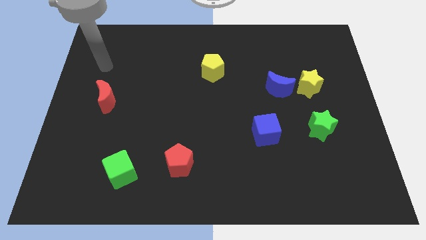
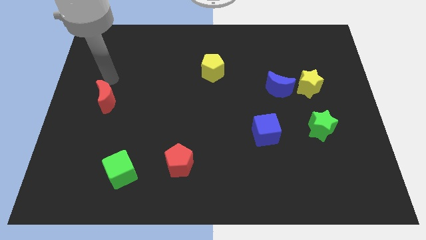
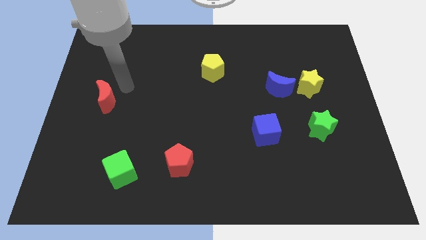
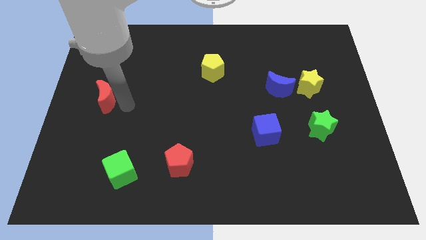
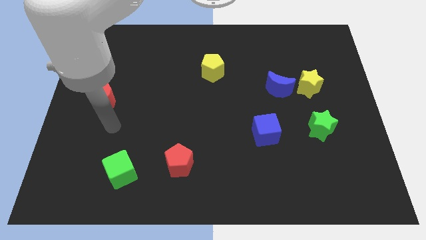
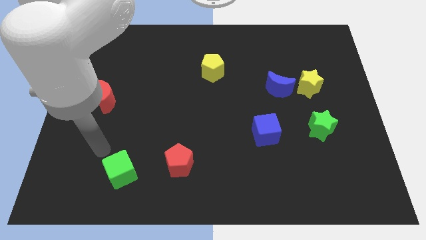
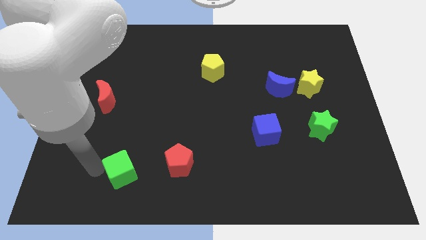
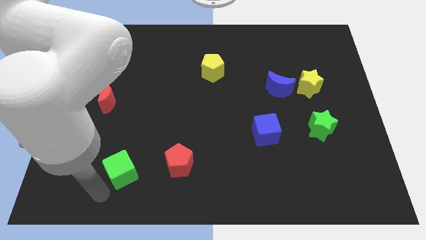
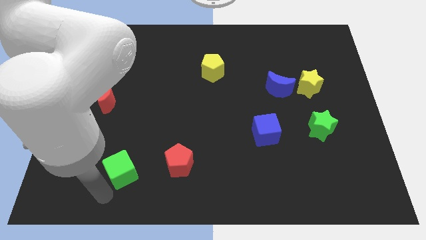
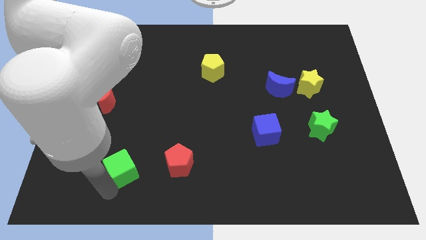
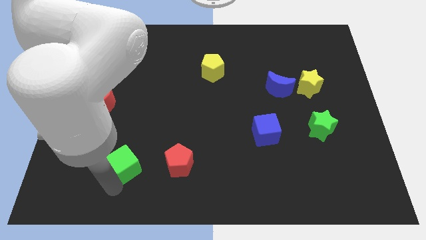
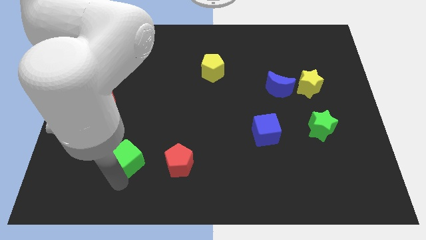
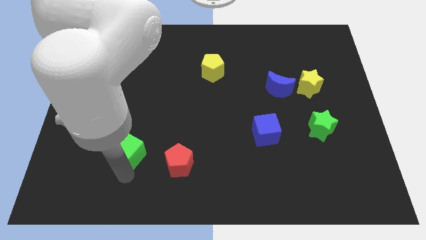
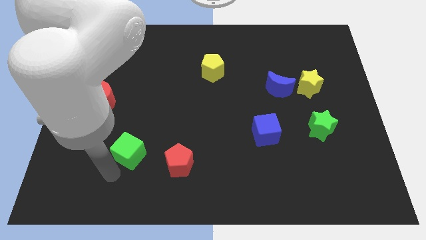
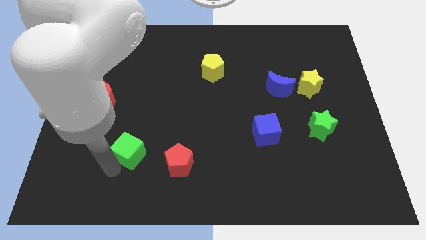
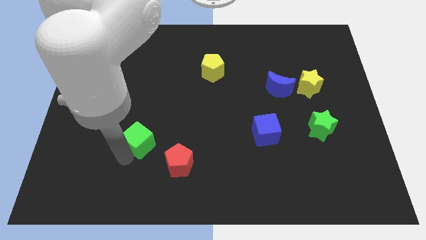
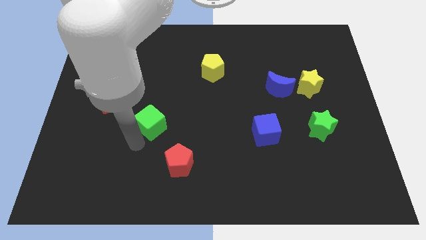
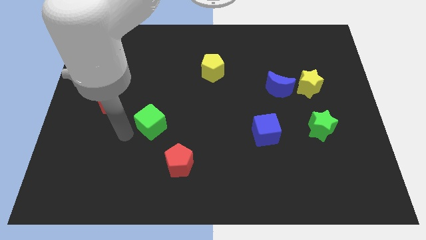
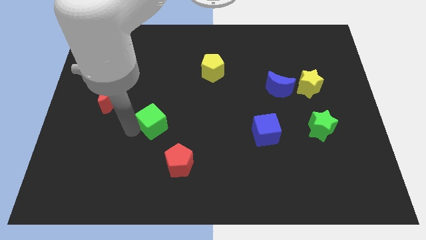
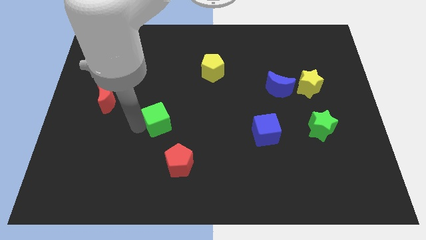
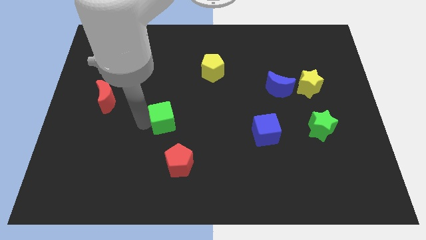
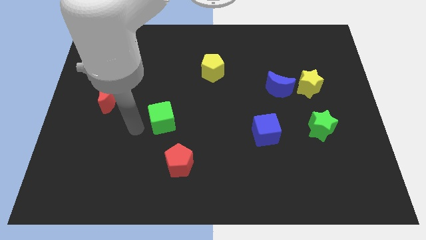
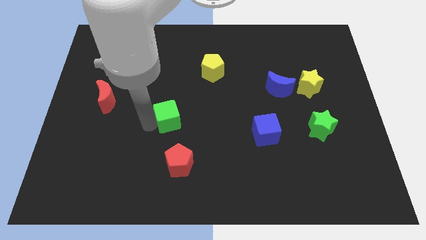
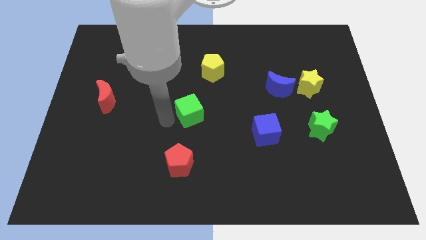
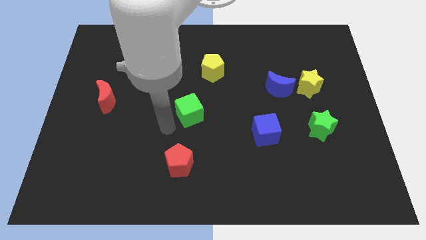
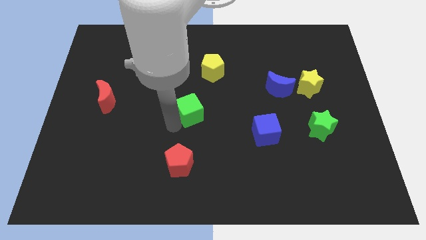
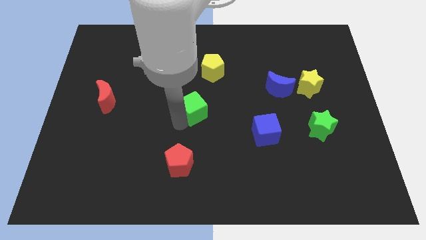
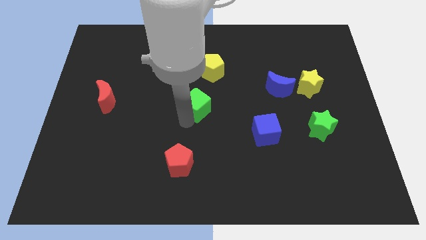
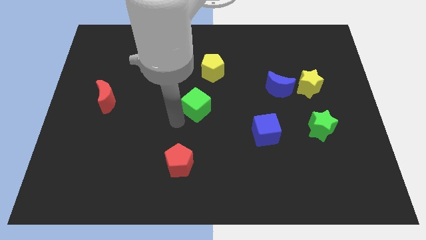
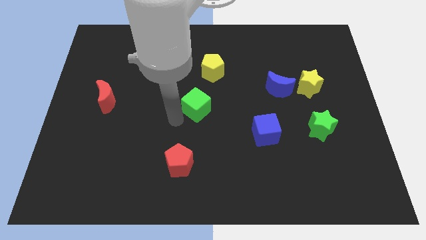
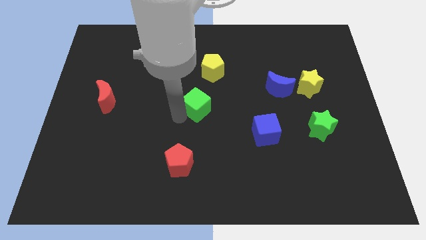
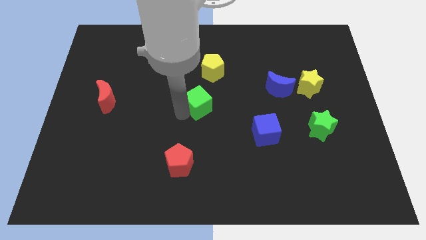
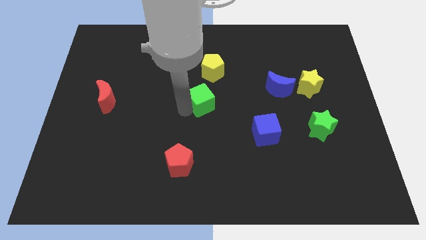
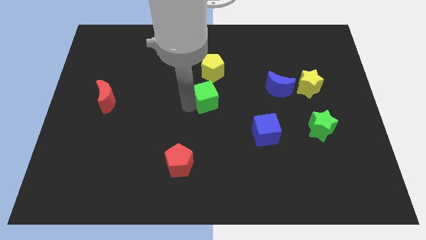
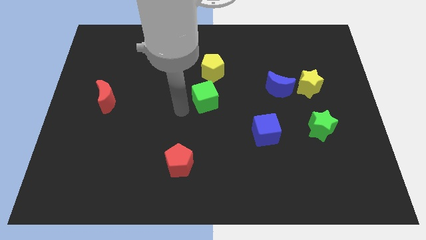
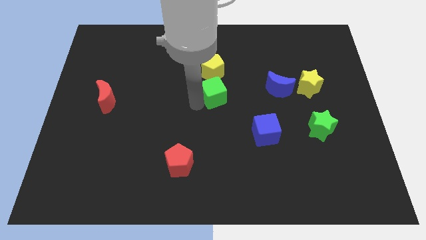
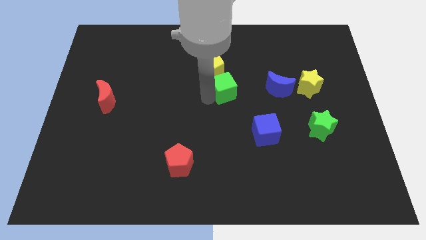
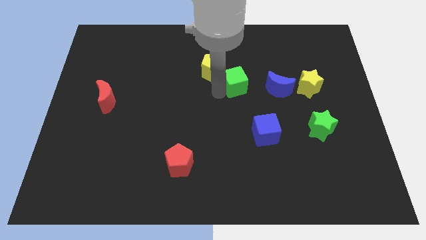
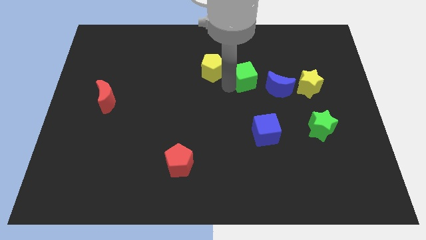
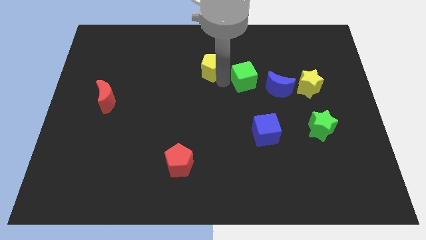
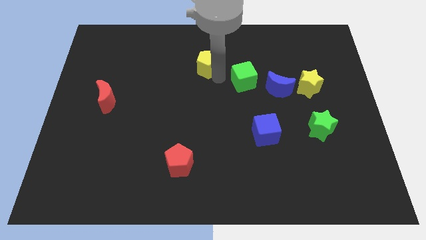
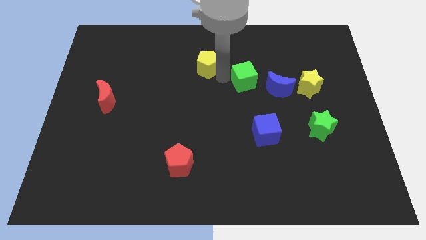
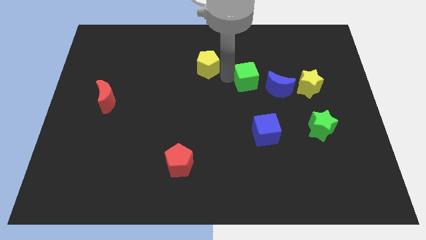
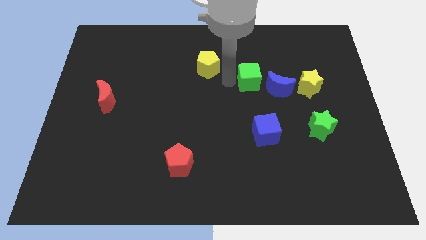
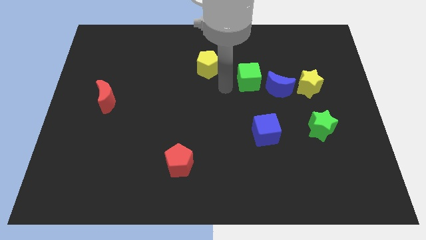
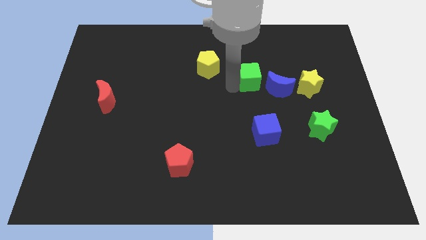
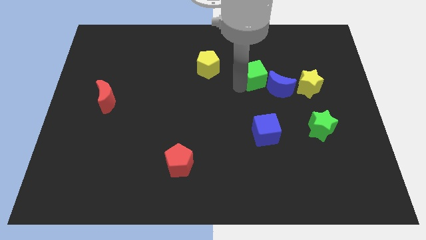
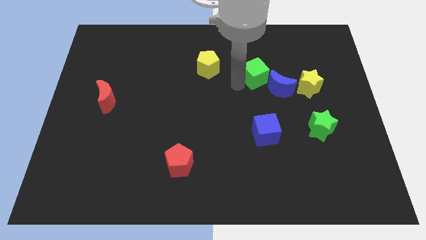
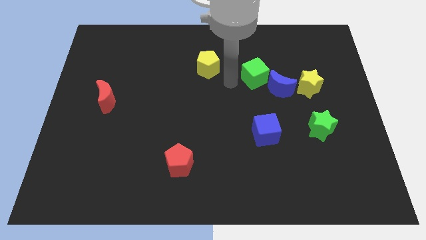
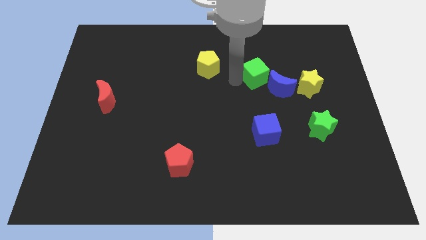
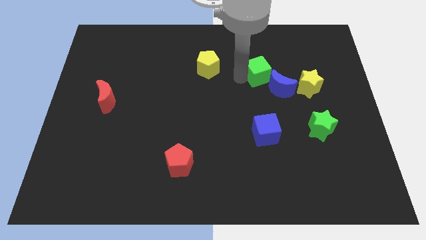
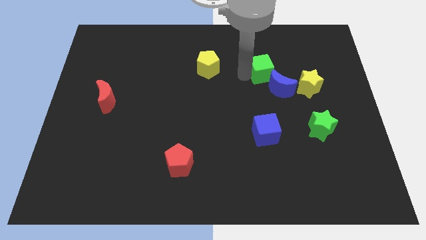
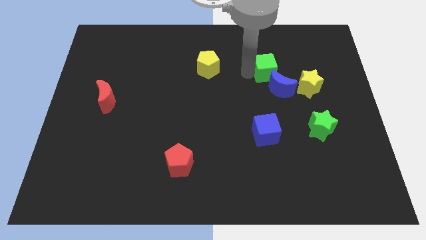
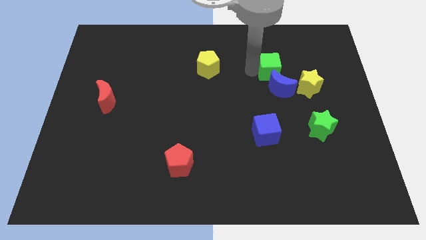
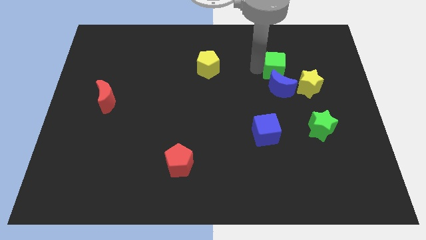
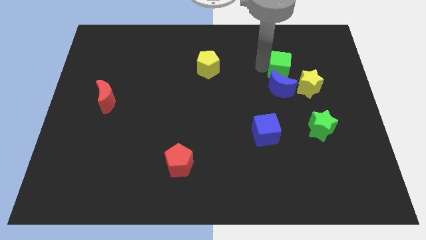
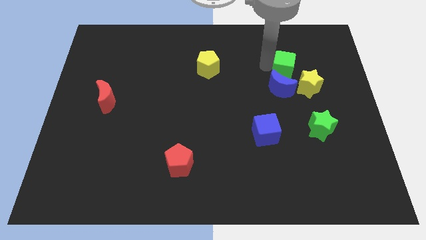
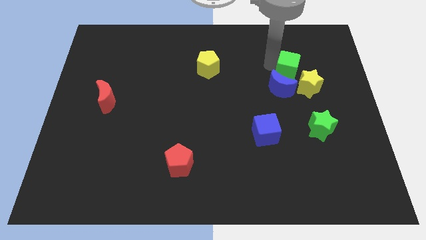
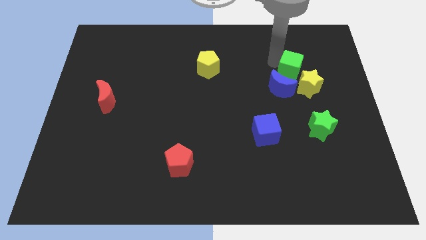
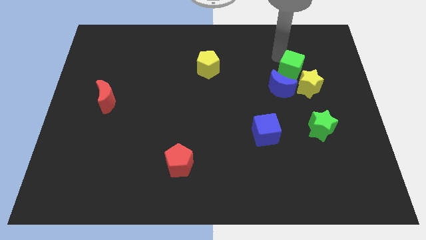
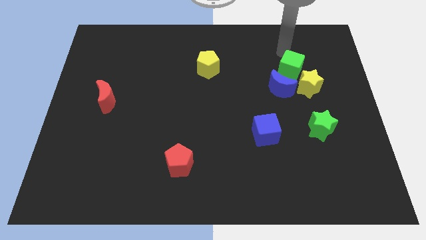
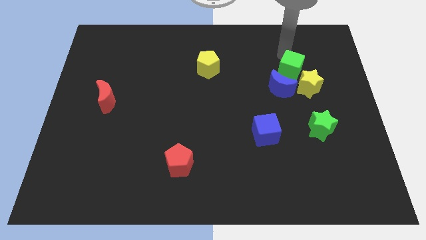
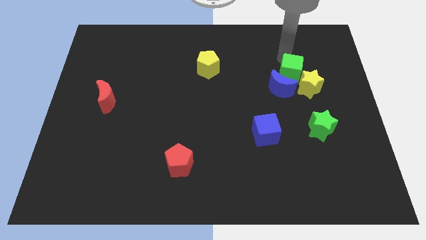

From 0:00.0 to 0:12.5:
push the green cube next to the yellow star

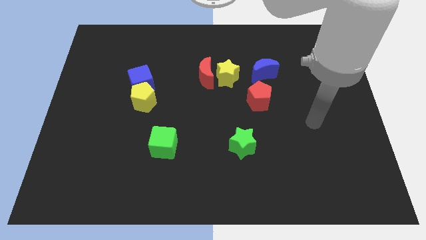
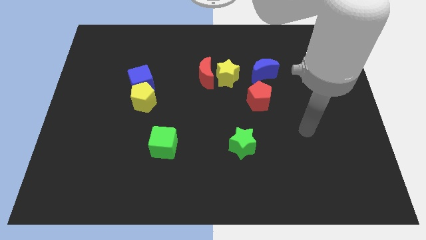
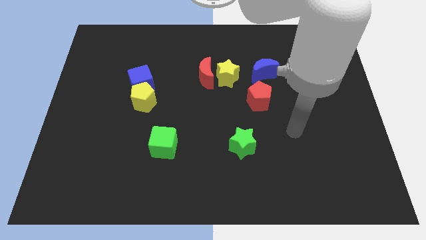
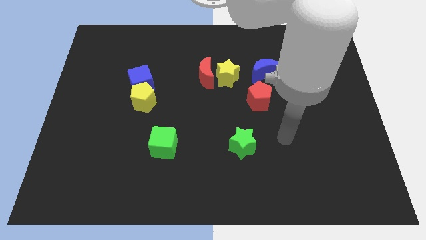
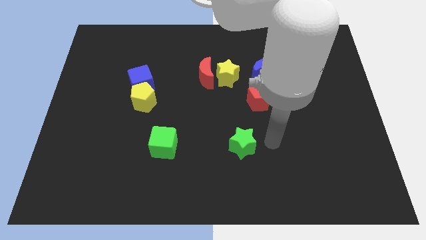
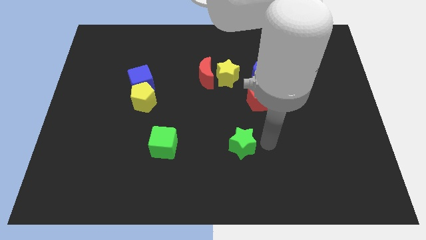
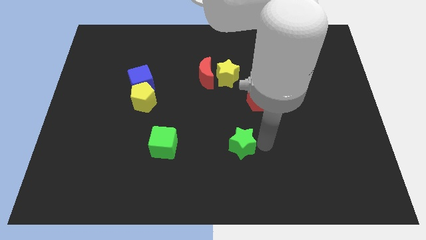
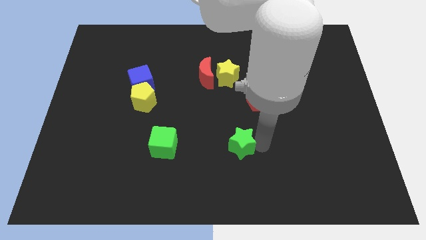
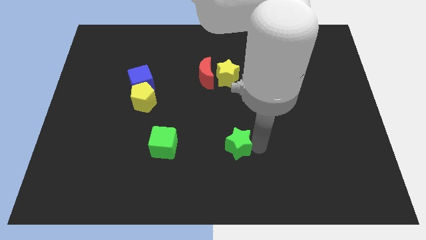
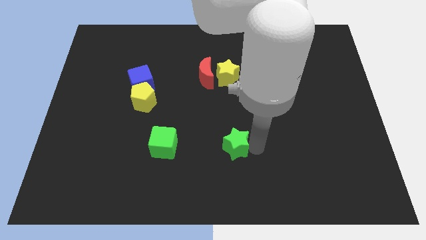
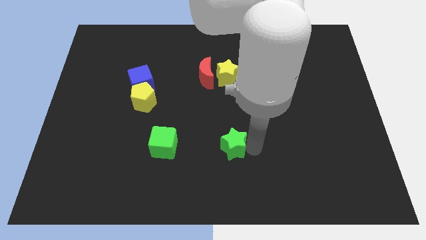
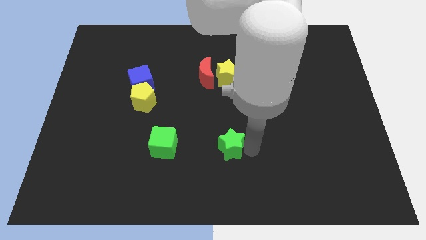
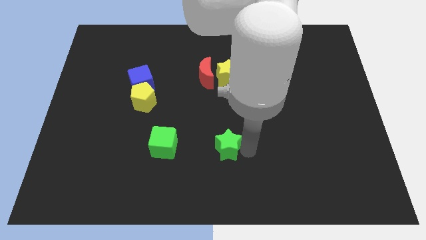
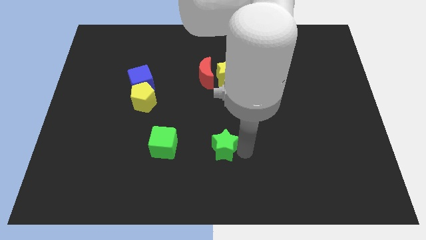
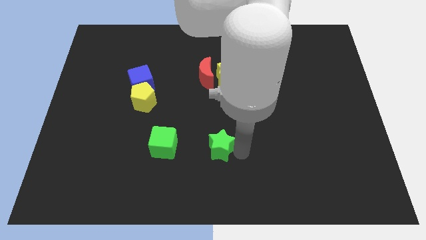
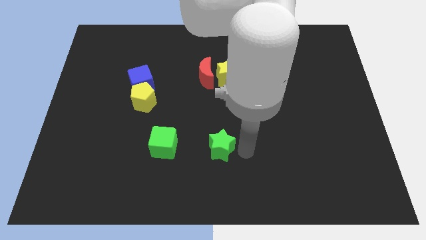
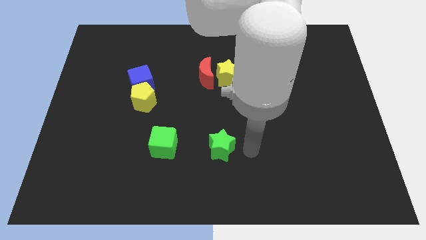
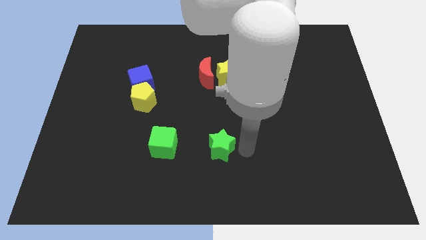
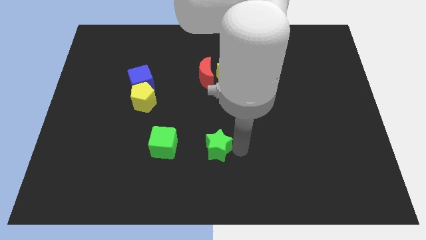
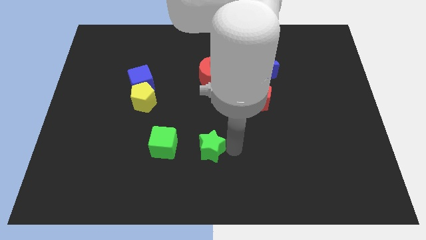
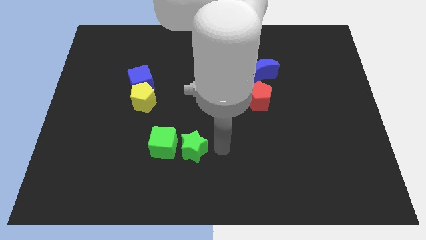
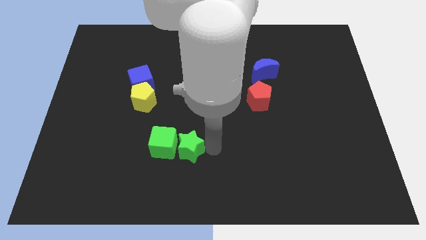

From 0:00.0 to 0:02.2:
slide the green star close to the green cube
